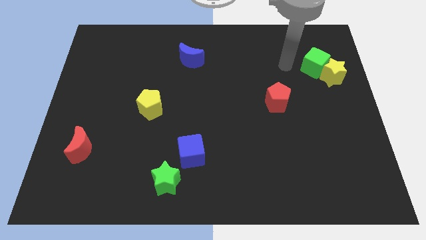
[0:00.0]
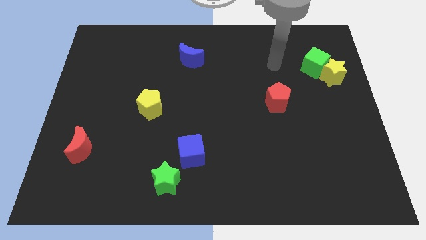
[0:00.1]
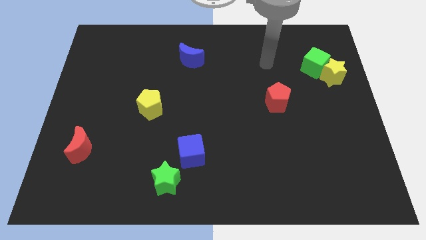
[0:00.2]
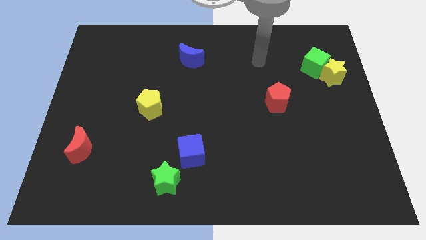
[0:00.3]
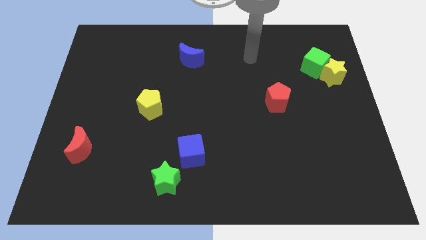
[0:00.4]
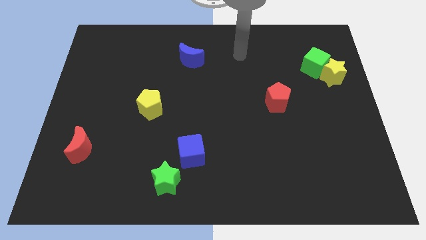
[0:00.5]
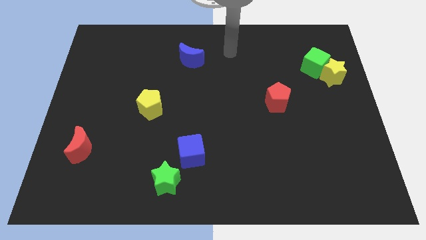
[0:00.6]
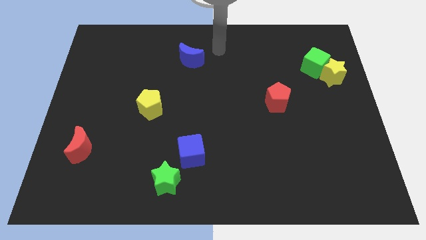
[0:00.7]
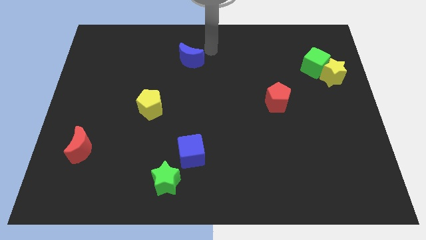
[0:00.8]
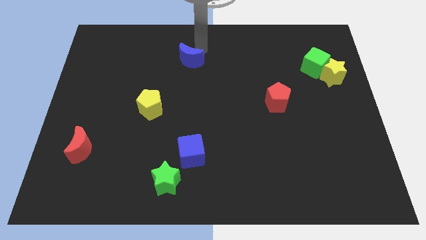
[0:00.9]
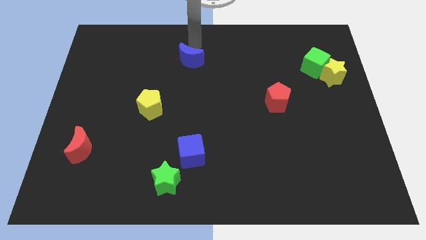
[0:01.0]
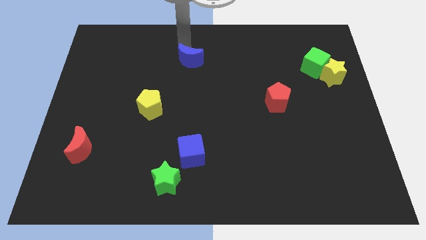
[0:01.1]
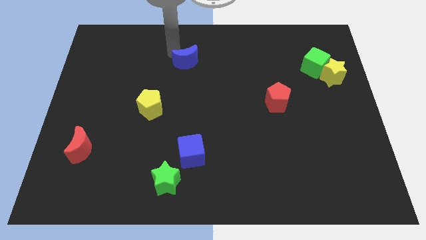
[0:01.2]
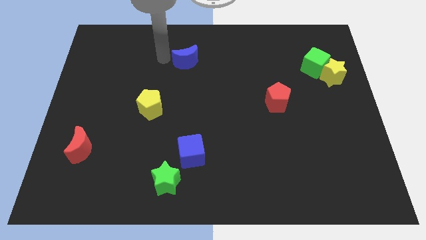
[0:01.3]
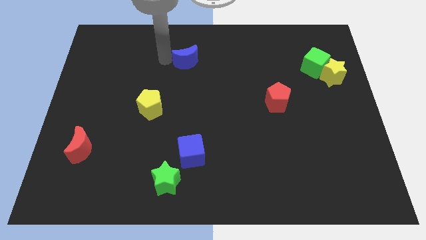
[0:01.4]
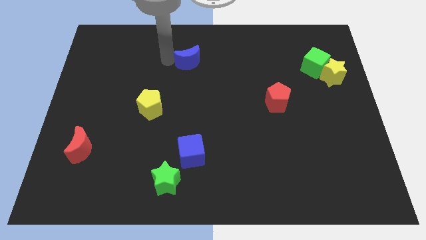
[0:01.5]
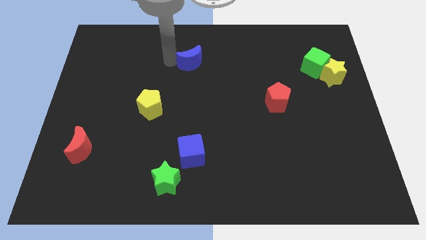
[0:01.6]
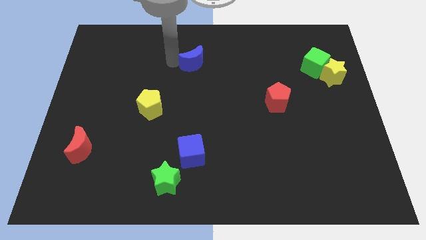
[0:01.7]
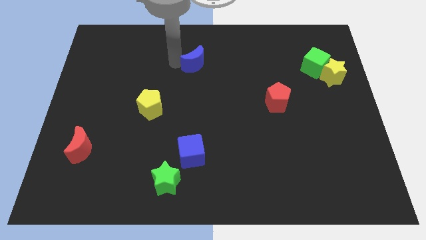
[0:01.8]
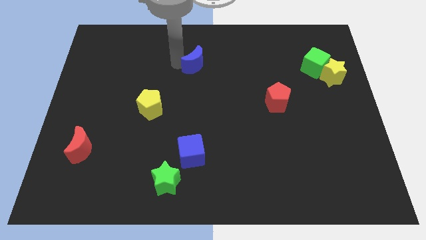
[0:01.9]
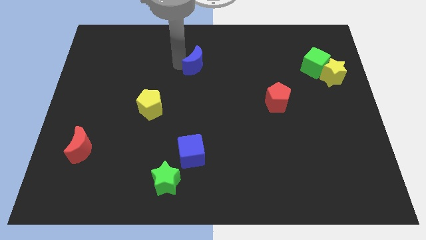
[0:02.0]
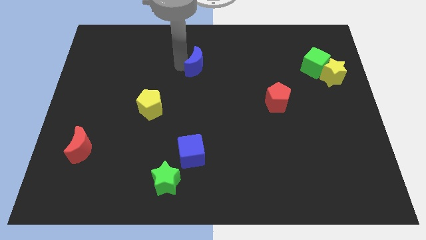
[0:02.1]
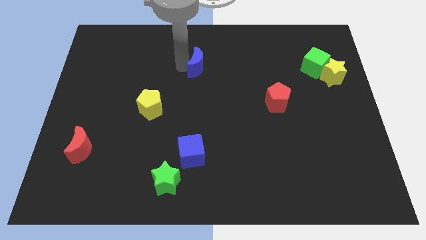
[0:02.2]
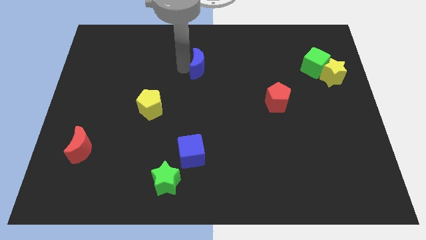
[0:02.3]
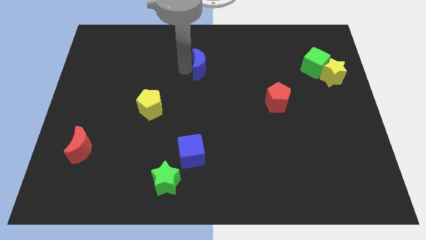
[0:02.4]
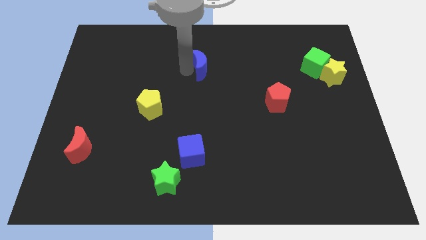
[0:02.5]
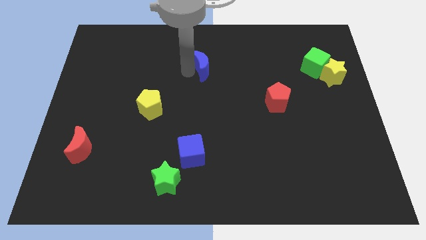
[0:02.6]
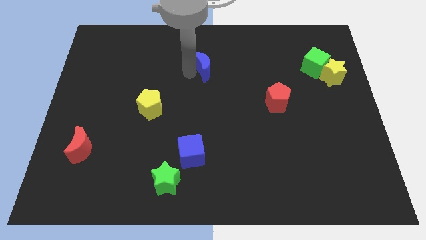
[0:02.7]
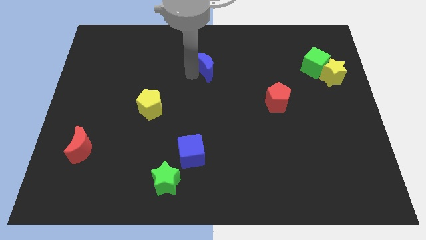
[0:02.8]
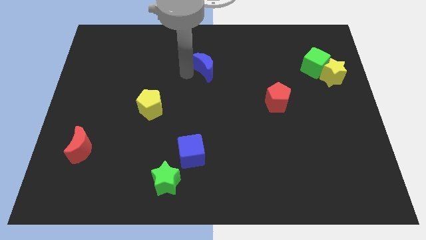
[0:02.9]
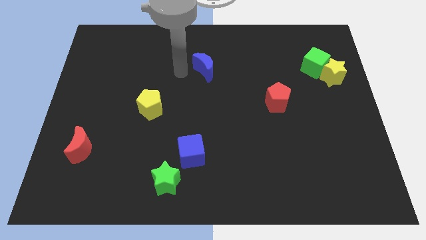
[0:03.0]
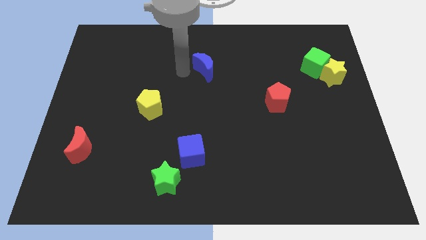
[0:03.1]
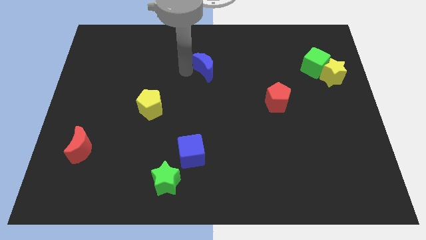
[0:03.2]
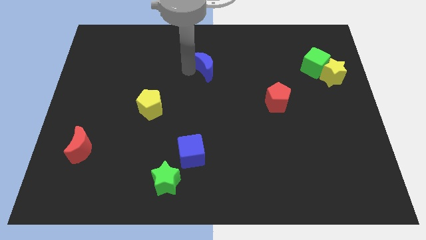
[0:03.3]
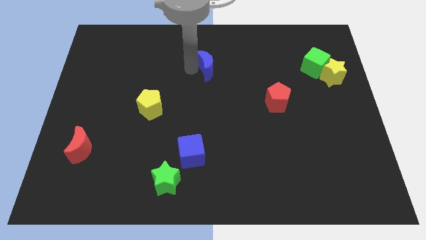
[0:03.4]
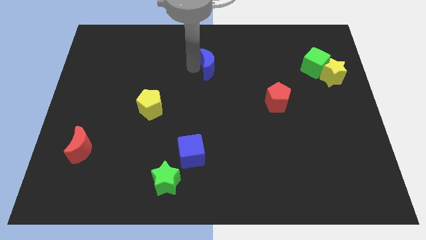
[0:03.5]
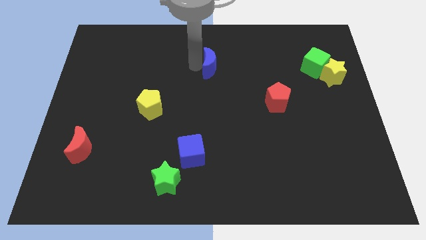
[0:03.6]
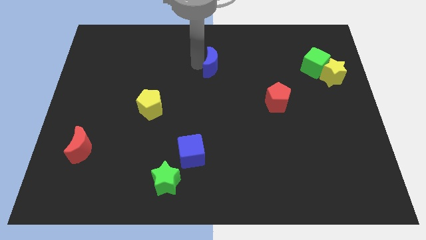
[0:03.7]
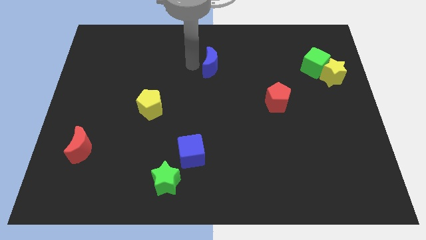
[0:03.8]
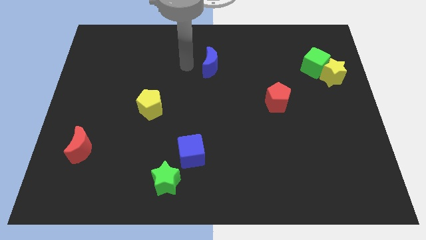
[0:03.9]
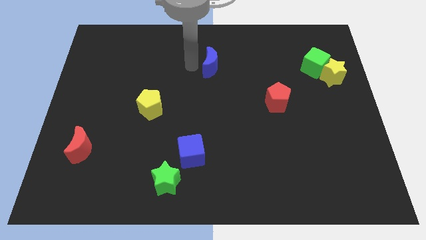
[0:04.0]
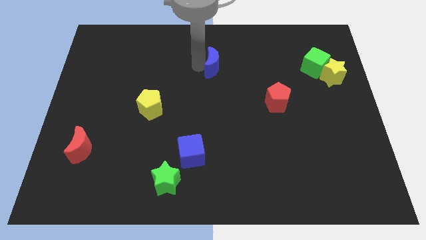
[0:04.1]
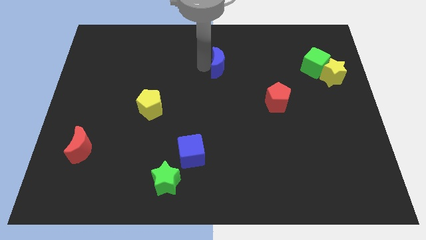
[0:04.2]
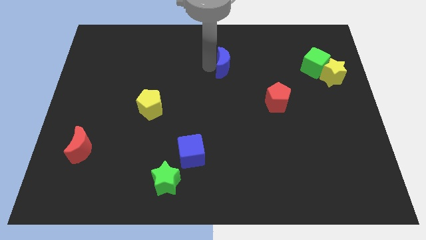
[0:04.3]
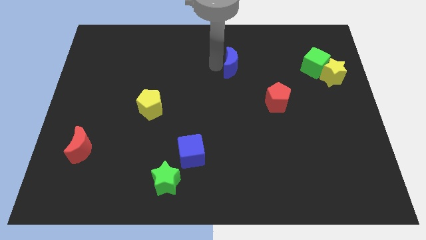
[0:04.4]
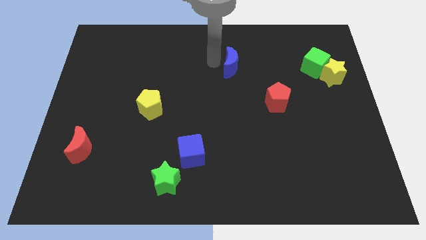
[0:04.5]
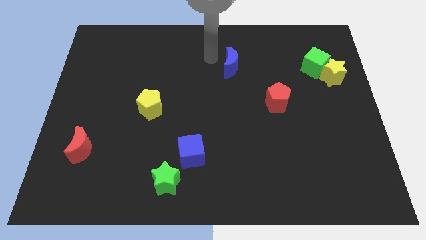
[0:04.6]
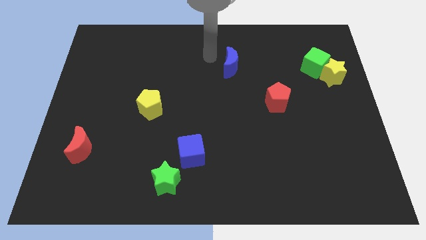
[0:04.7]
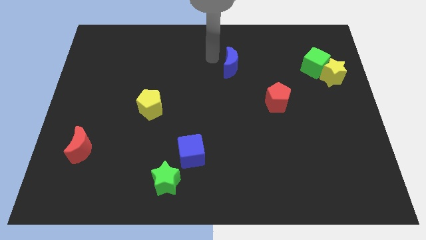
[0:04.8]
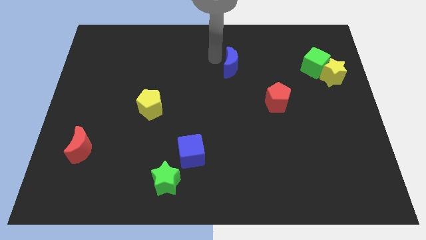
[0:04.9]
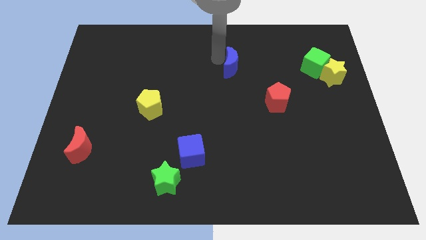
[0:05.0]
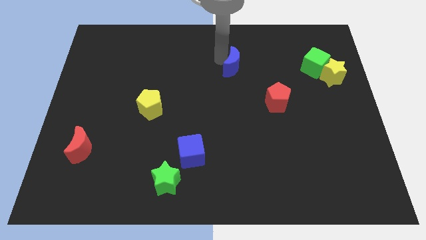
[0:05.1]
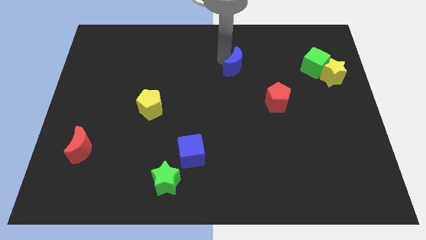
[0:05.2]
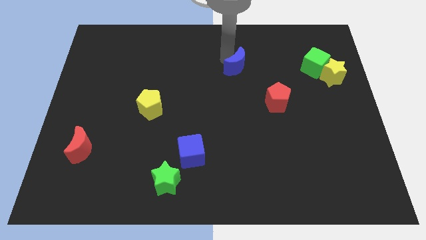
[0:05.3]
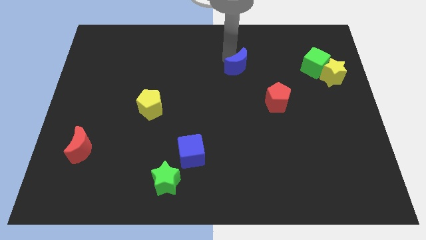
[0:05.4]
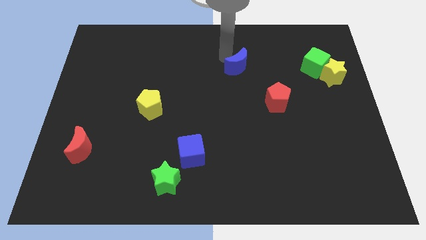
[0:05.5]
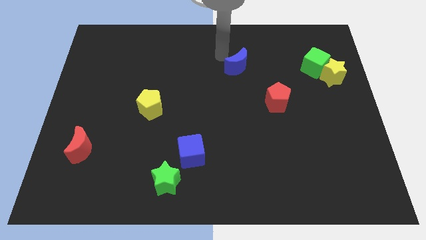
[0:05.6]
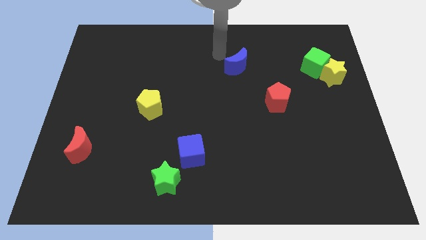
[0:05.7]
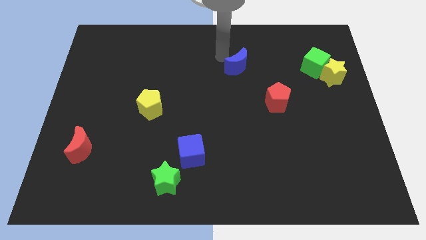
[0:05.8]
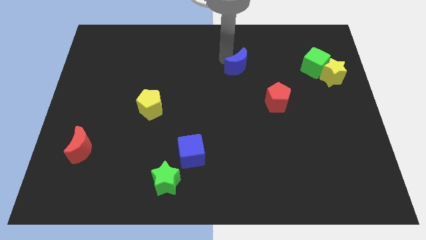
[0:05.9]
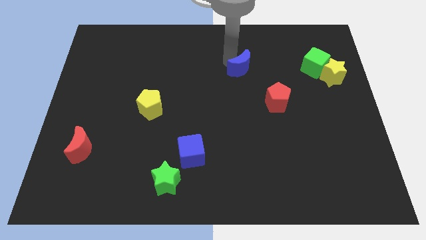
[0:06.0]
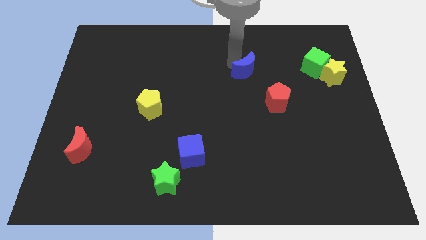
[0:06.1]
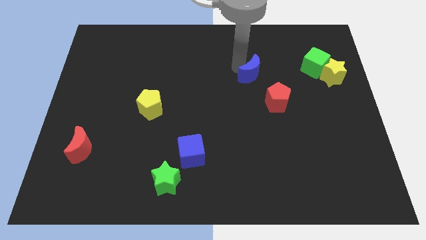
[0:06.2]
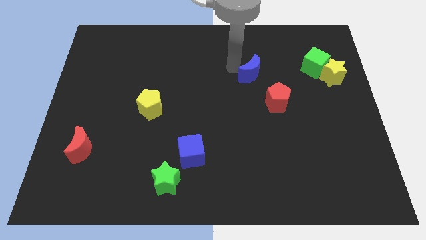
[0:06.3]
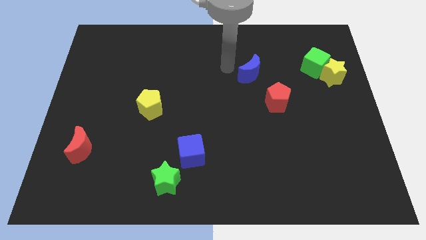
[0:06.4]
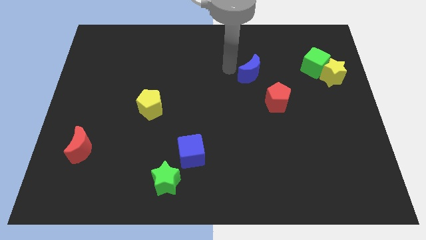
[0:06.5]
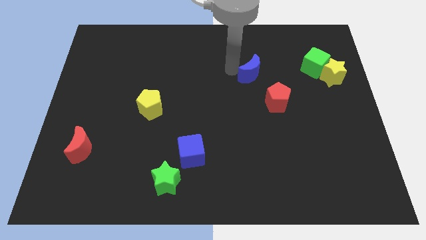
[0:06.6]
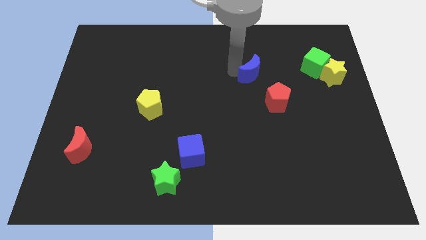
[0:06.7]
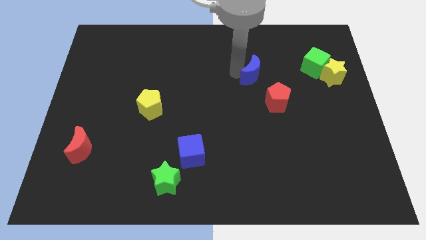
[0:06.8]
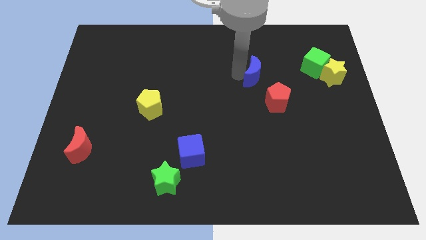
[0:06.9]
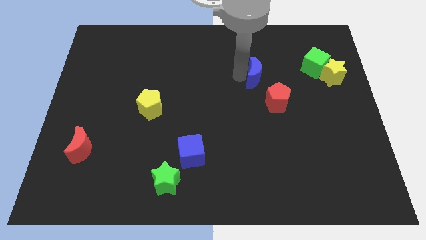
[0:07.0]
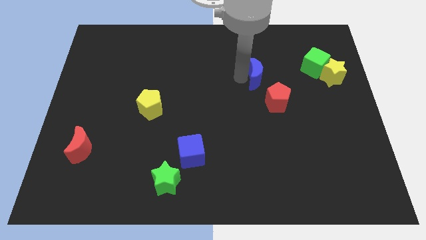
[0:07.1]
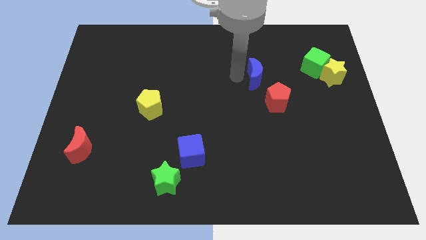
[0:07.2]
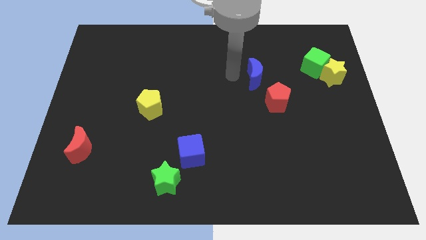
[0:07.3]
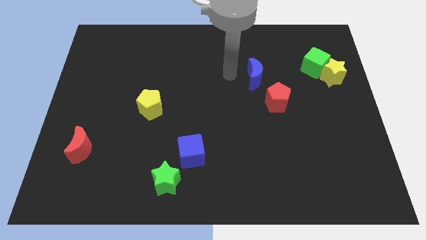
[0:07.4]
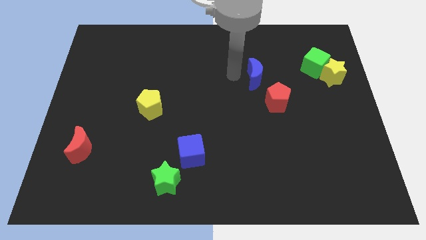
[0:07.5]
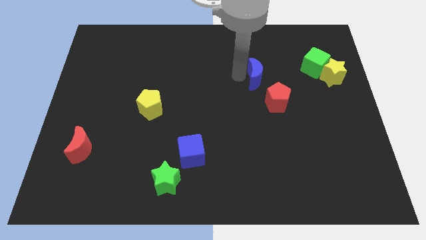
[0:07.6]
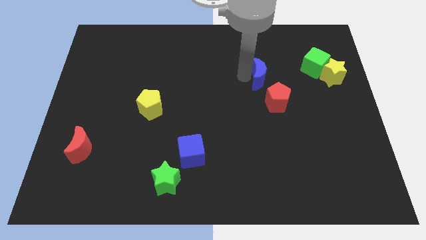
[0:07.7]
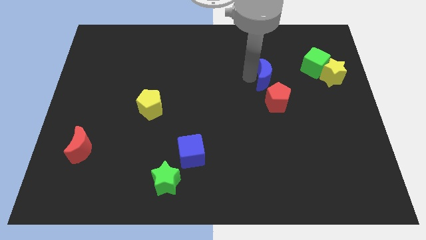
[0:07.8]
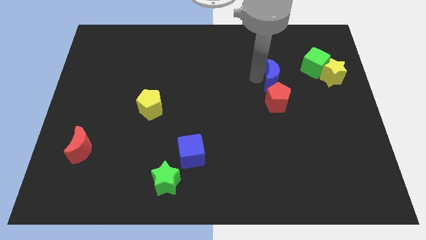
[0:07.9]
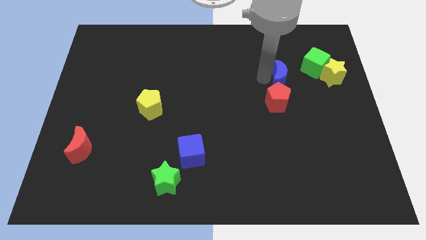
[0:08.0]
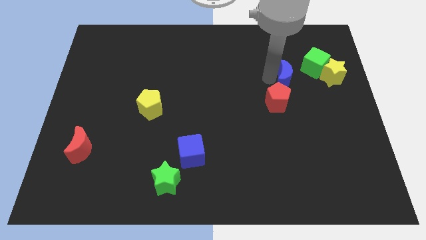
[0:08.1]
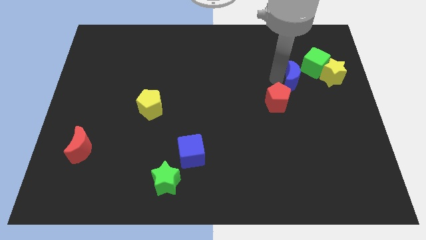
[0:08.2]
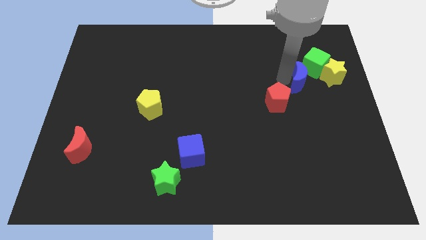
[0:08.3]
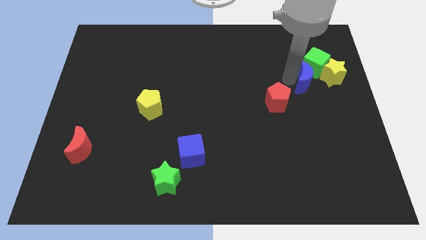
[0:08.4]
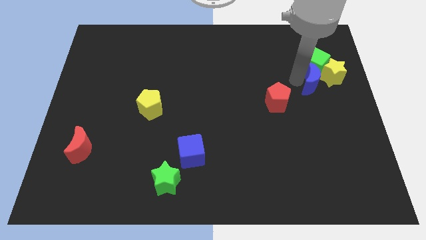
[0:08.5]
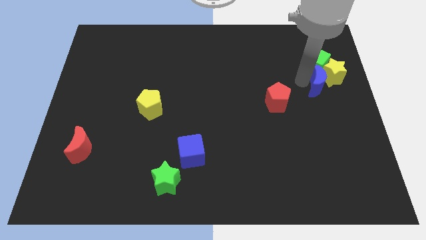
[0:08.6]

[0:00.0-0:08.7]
move the blue moon to the center right
